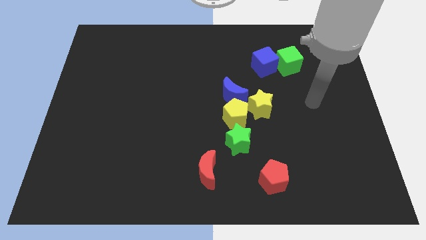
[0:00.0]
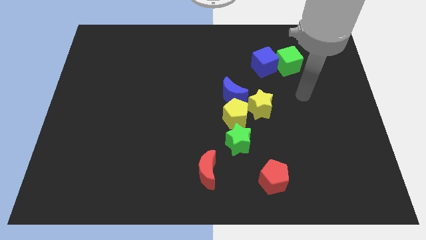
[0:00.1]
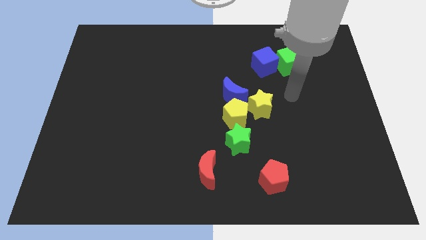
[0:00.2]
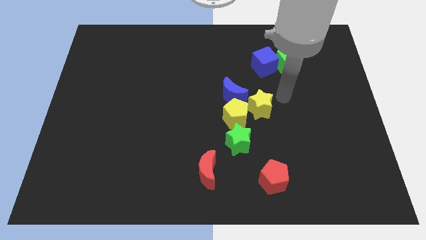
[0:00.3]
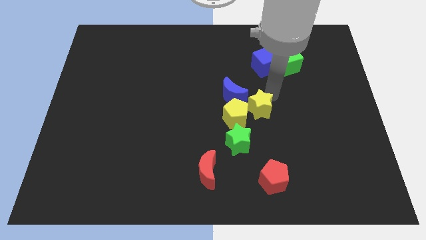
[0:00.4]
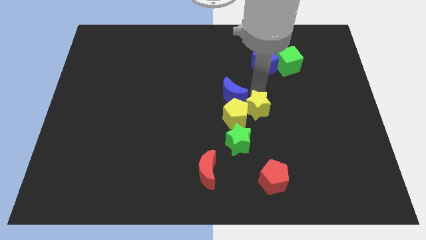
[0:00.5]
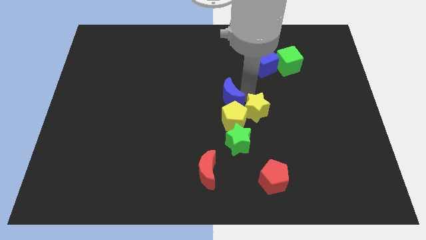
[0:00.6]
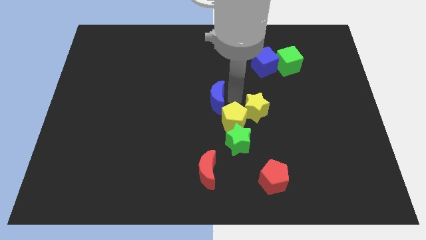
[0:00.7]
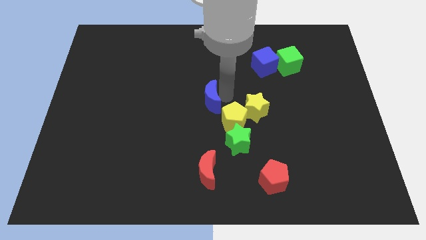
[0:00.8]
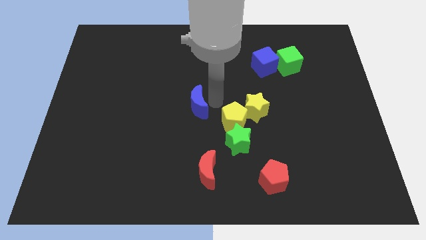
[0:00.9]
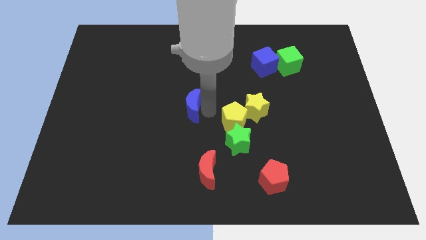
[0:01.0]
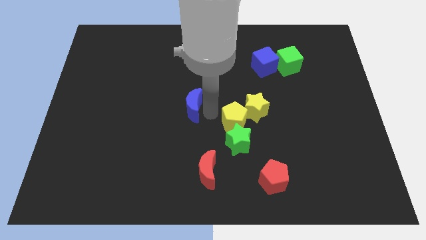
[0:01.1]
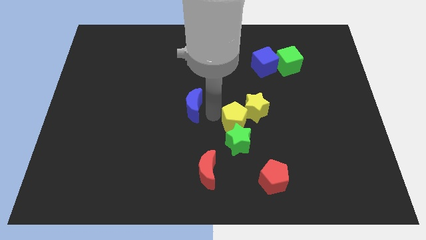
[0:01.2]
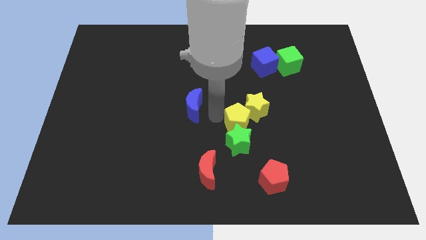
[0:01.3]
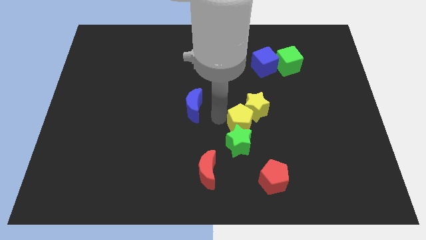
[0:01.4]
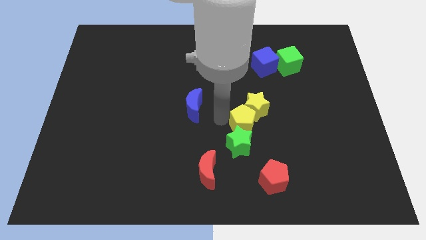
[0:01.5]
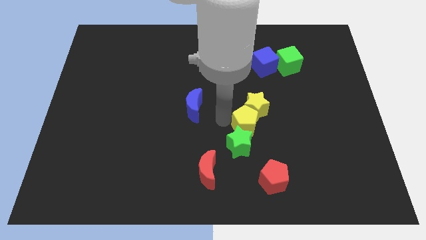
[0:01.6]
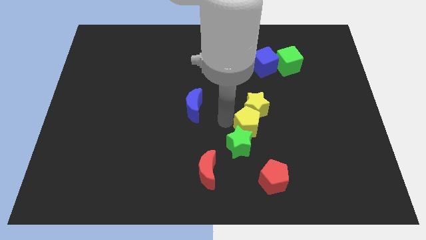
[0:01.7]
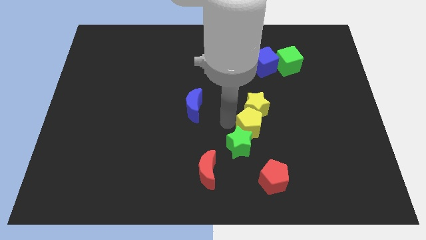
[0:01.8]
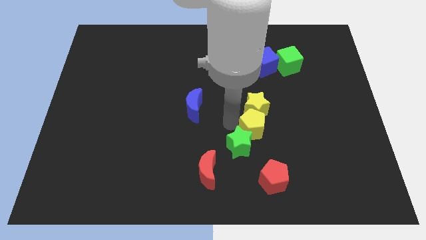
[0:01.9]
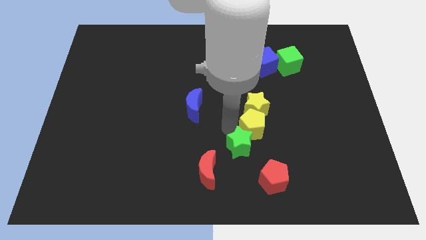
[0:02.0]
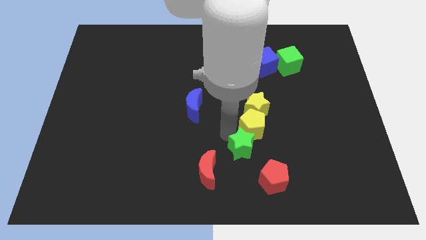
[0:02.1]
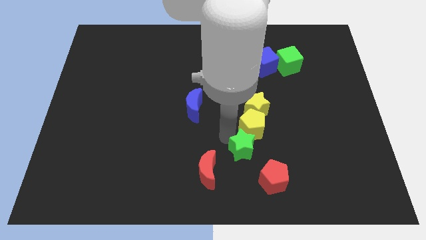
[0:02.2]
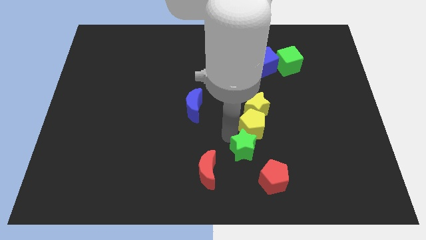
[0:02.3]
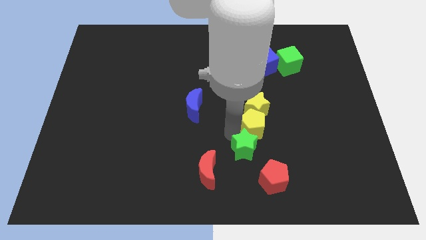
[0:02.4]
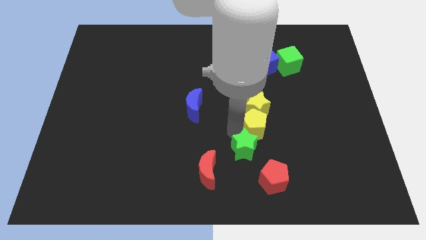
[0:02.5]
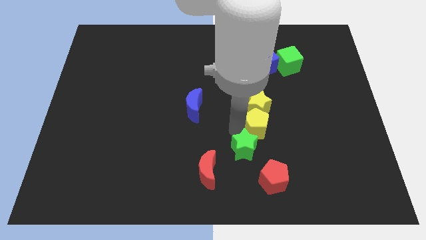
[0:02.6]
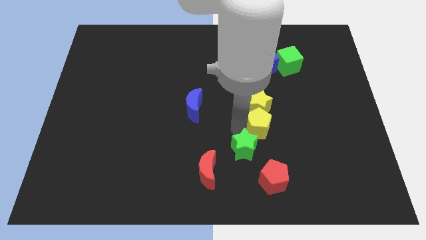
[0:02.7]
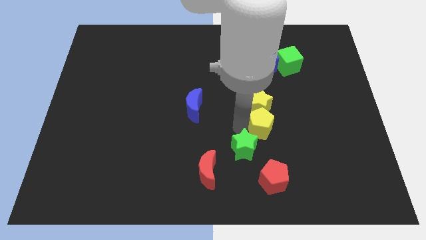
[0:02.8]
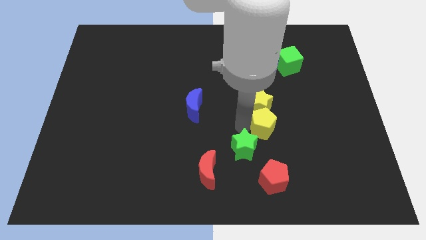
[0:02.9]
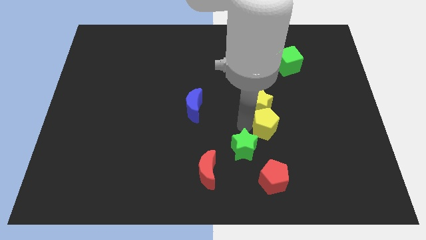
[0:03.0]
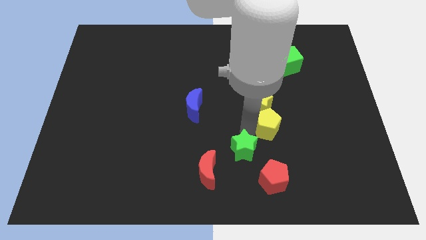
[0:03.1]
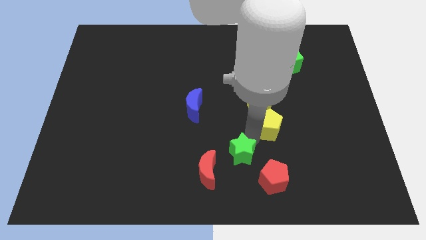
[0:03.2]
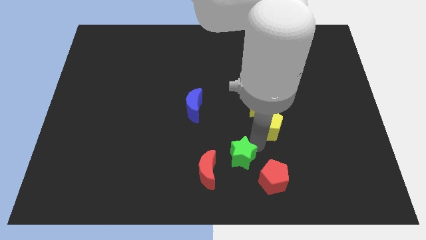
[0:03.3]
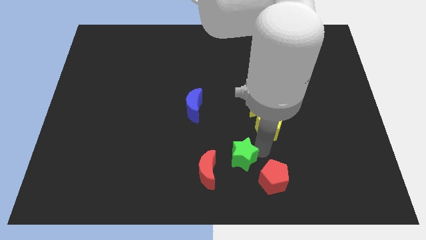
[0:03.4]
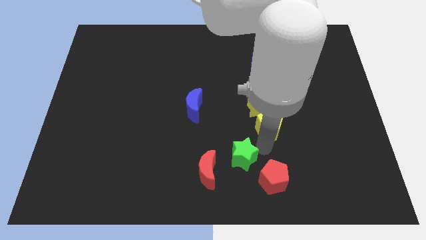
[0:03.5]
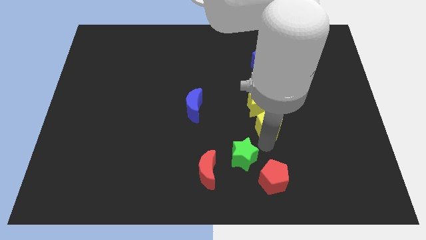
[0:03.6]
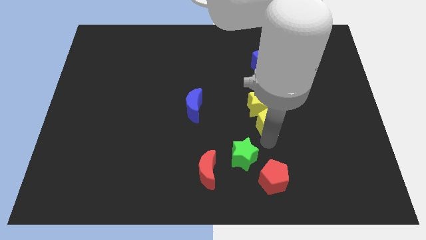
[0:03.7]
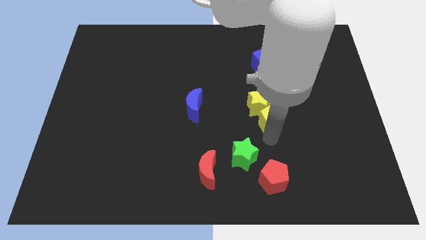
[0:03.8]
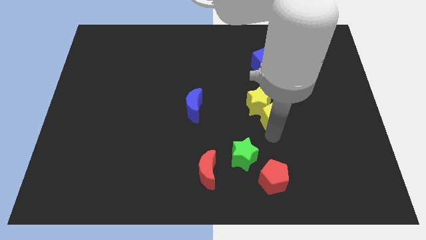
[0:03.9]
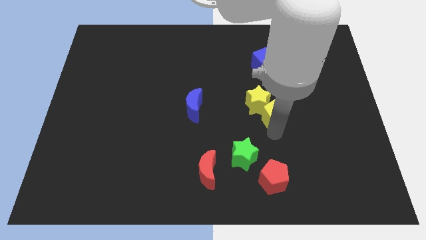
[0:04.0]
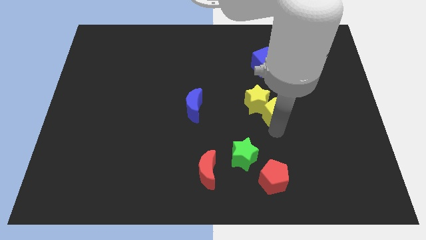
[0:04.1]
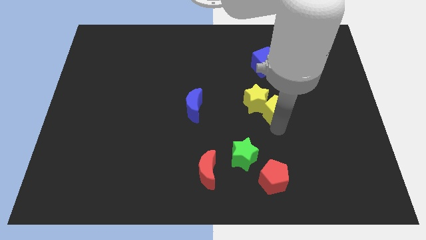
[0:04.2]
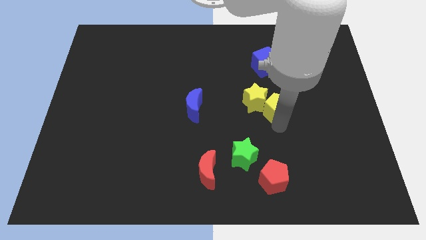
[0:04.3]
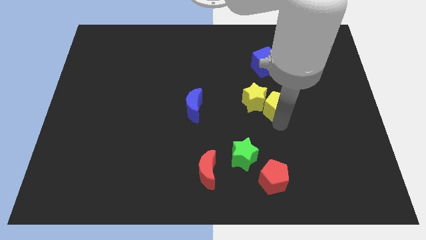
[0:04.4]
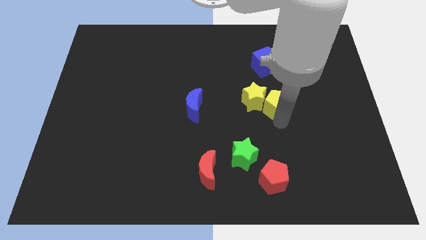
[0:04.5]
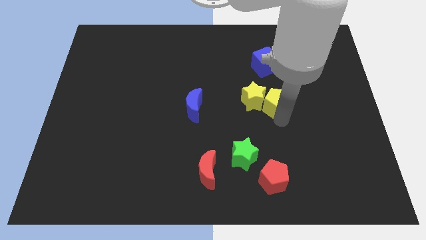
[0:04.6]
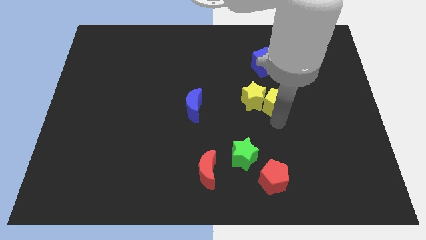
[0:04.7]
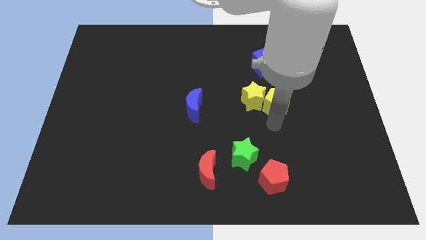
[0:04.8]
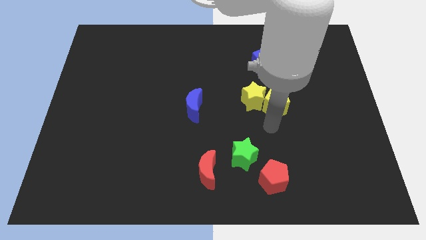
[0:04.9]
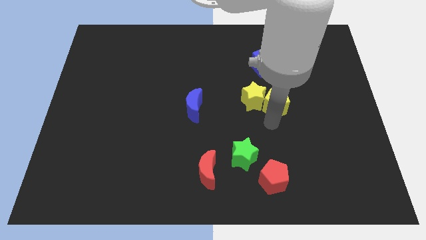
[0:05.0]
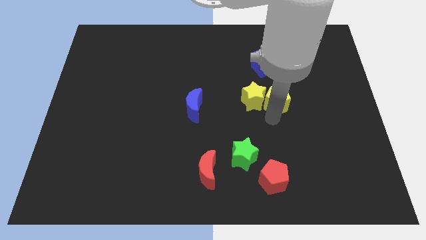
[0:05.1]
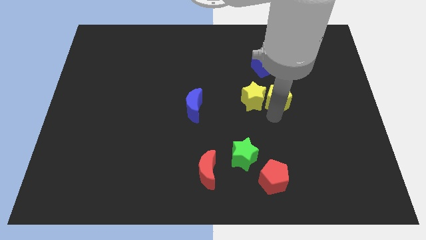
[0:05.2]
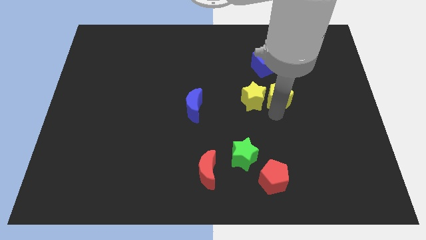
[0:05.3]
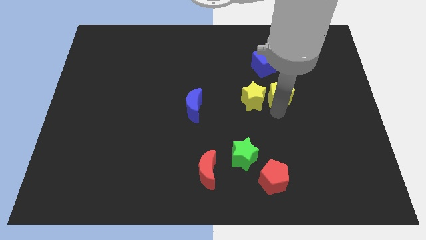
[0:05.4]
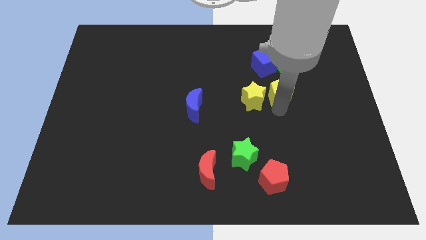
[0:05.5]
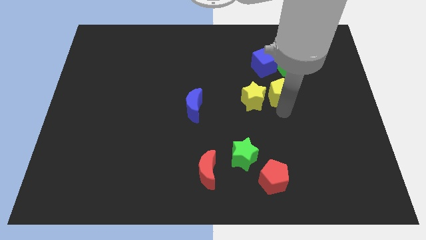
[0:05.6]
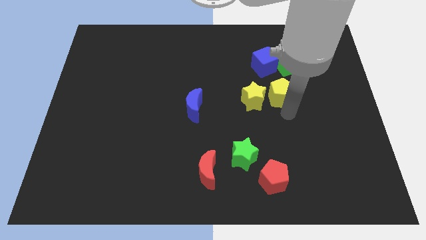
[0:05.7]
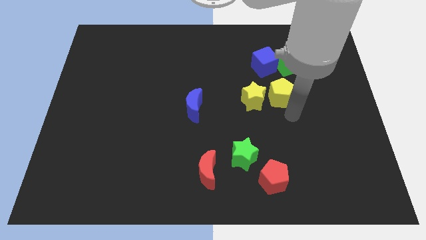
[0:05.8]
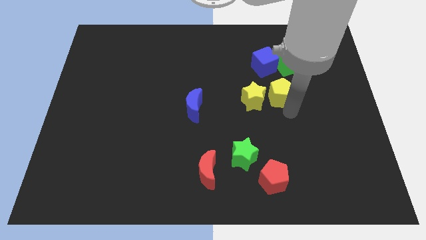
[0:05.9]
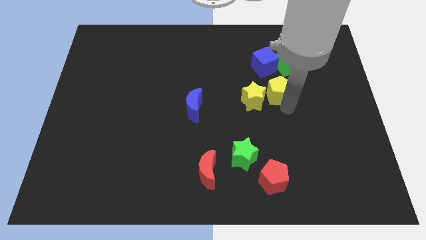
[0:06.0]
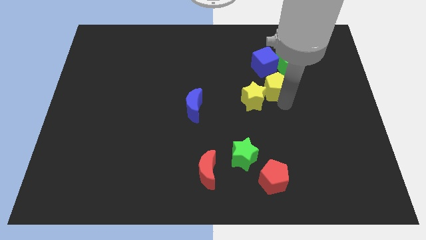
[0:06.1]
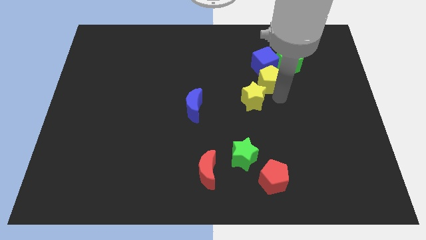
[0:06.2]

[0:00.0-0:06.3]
put the yellow pentagon close to the blue cube

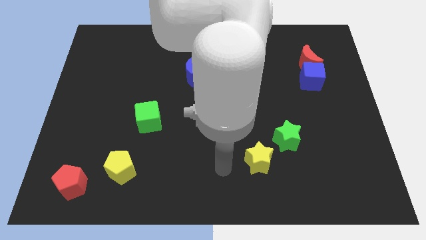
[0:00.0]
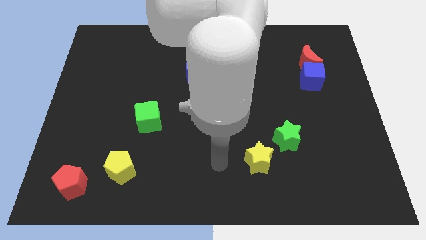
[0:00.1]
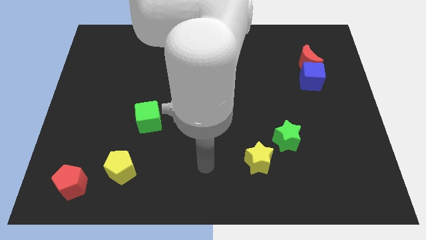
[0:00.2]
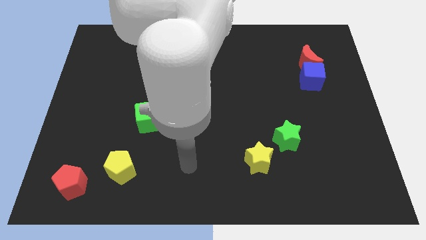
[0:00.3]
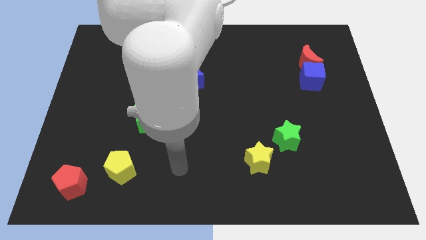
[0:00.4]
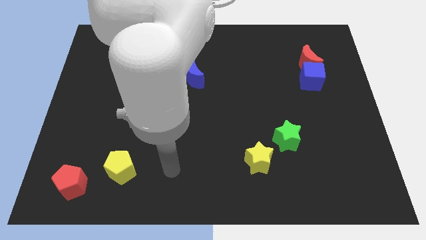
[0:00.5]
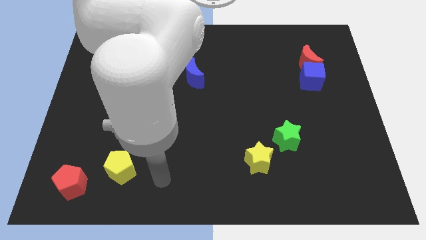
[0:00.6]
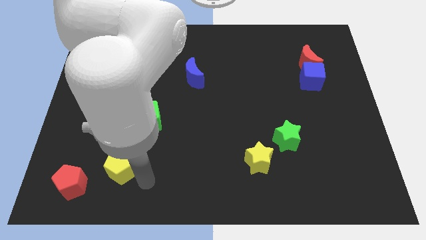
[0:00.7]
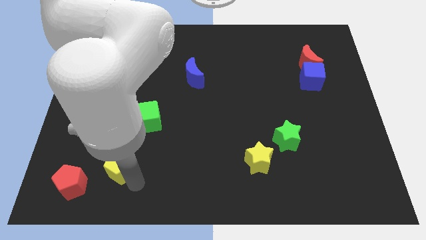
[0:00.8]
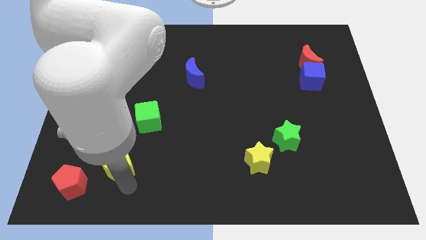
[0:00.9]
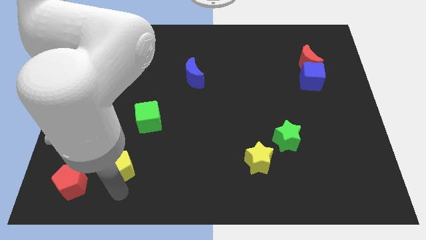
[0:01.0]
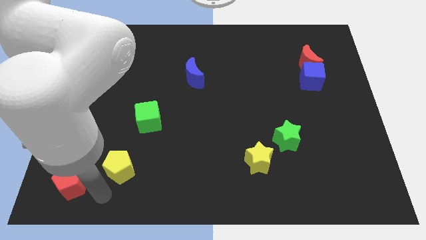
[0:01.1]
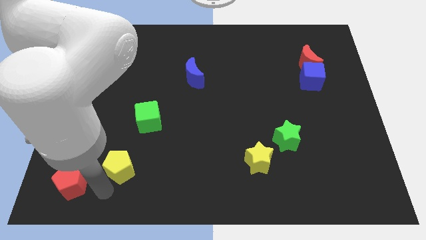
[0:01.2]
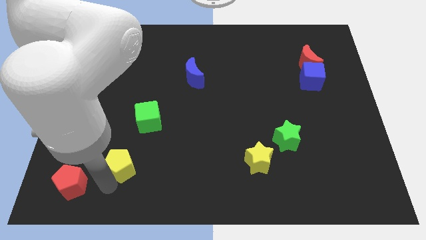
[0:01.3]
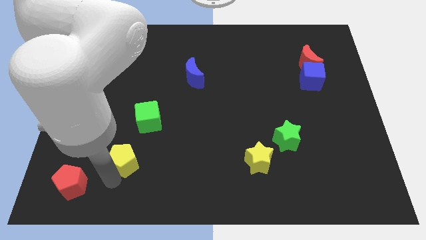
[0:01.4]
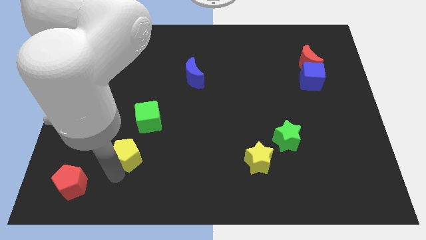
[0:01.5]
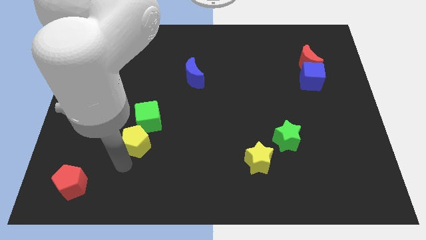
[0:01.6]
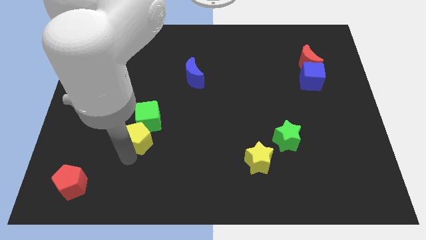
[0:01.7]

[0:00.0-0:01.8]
slide the yellow pentagon close to the green cube
